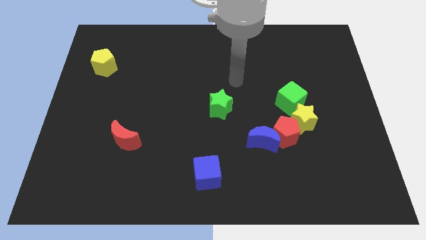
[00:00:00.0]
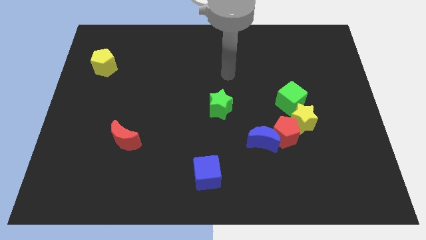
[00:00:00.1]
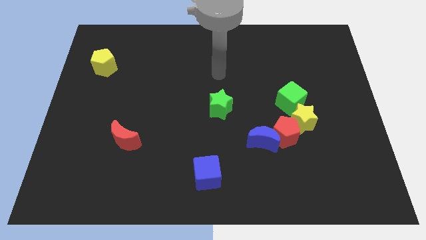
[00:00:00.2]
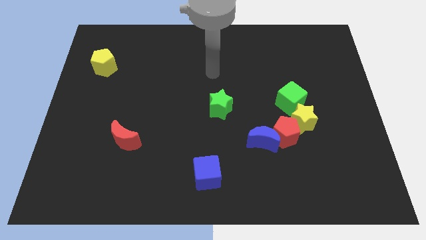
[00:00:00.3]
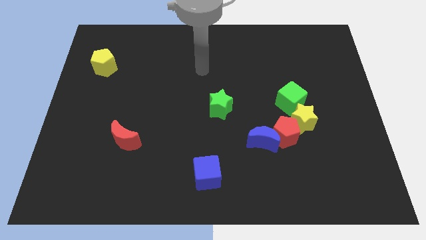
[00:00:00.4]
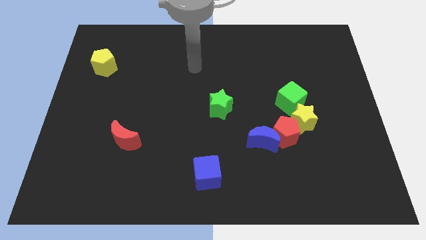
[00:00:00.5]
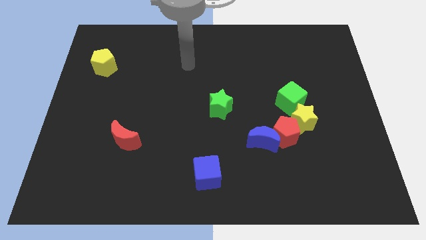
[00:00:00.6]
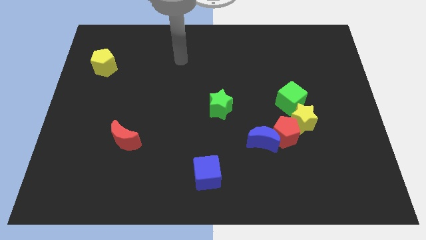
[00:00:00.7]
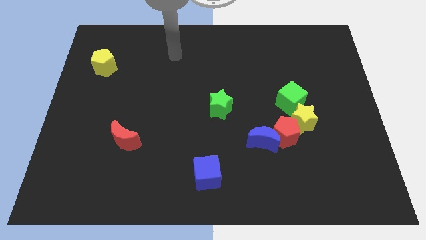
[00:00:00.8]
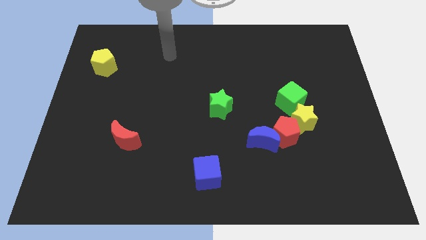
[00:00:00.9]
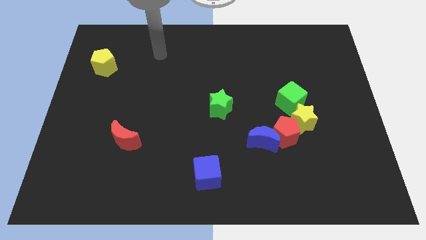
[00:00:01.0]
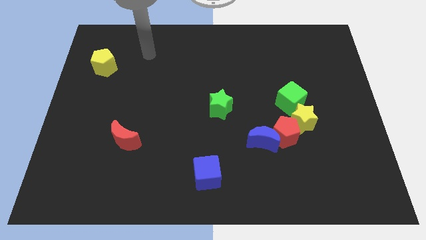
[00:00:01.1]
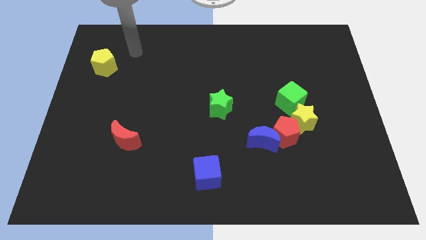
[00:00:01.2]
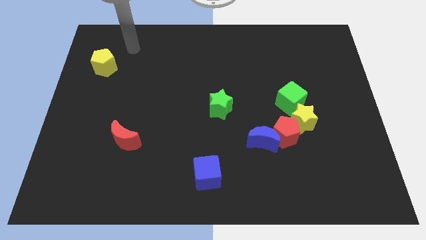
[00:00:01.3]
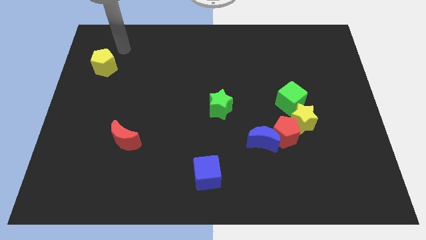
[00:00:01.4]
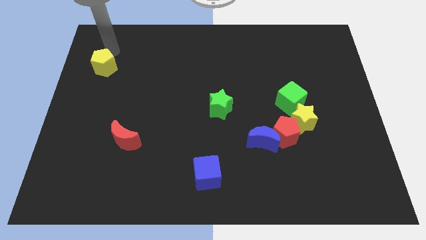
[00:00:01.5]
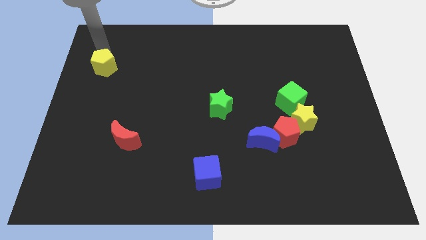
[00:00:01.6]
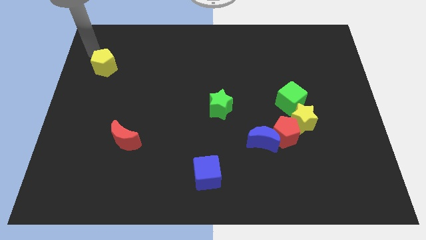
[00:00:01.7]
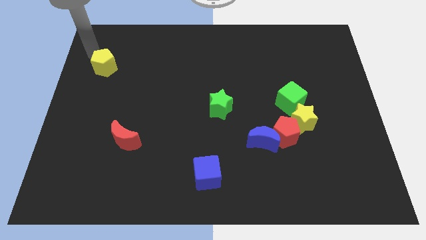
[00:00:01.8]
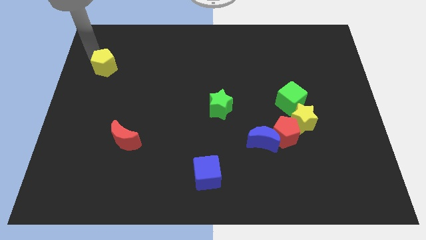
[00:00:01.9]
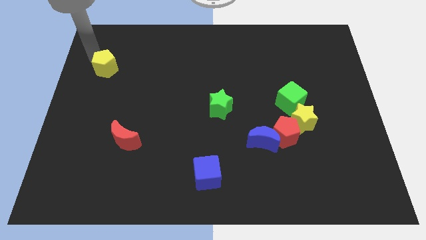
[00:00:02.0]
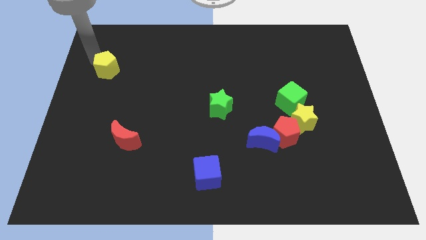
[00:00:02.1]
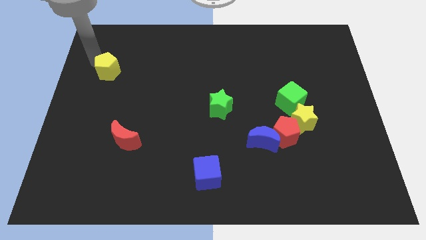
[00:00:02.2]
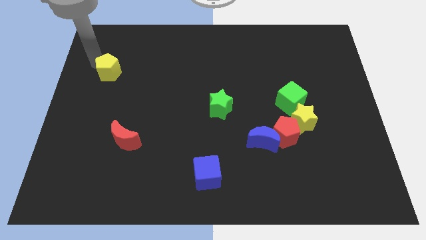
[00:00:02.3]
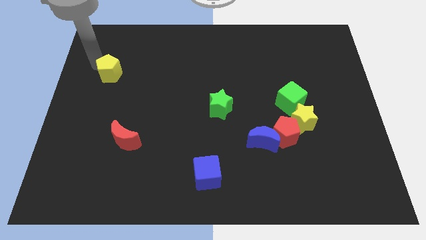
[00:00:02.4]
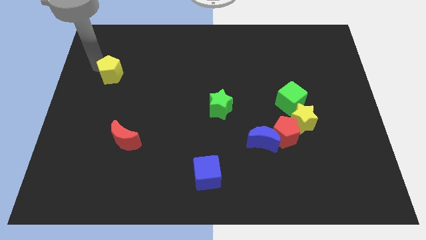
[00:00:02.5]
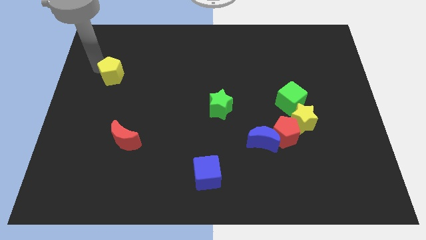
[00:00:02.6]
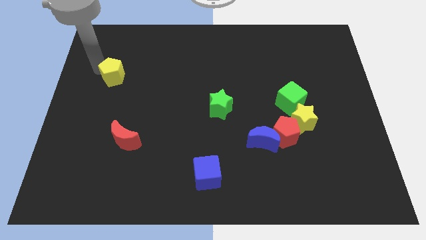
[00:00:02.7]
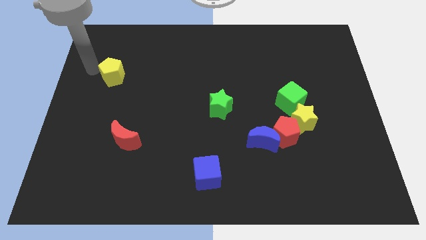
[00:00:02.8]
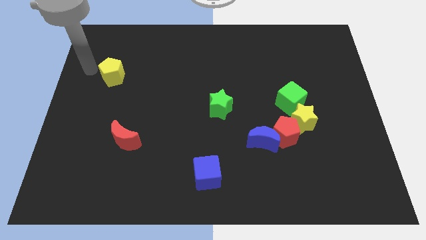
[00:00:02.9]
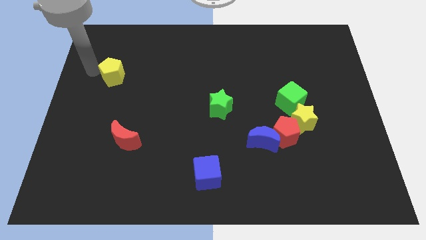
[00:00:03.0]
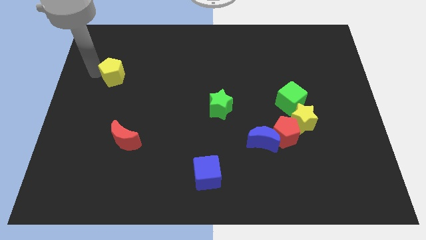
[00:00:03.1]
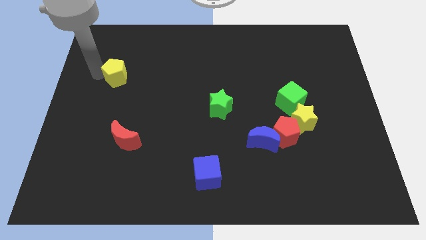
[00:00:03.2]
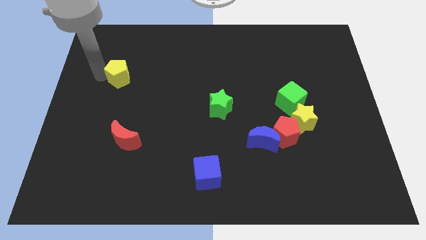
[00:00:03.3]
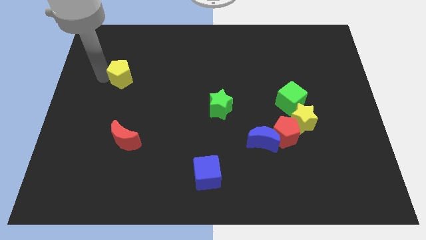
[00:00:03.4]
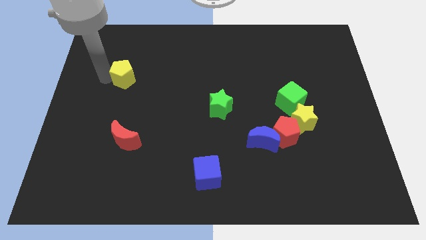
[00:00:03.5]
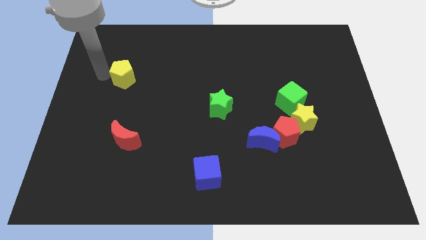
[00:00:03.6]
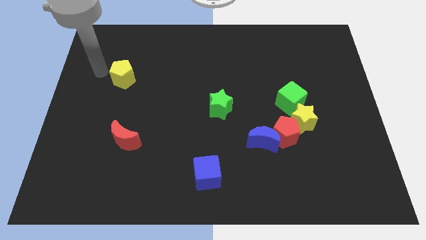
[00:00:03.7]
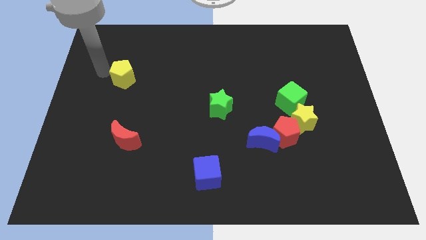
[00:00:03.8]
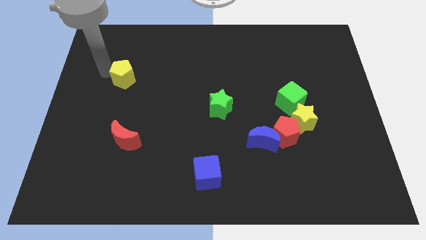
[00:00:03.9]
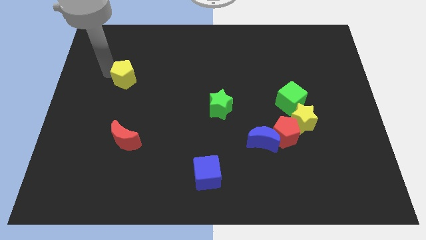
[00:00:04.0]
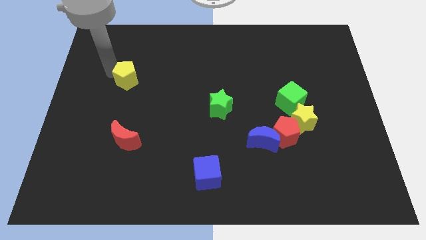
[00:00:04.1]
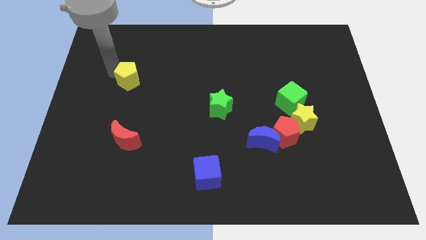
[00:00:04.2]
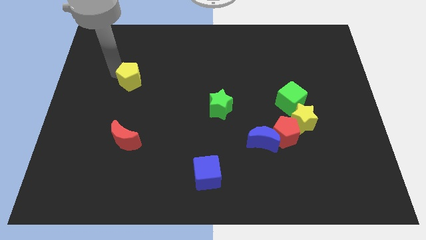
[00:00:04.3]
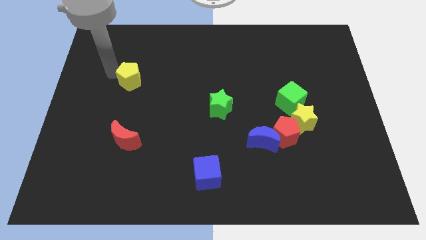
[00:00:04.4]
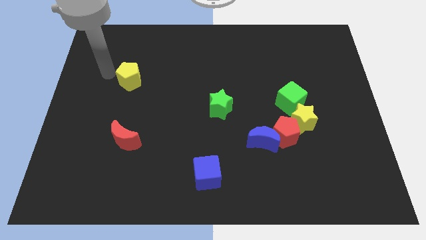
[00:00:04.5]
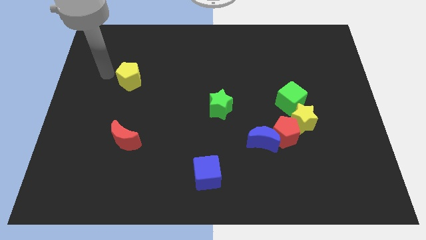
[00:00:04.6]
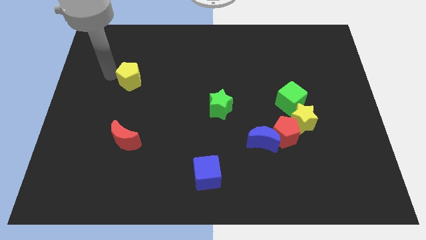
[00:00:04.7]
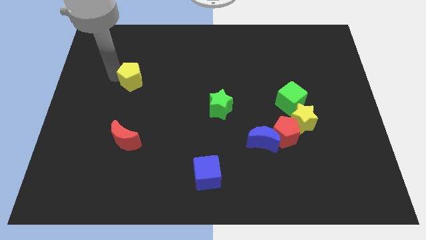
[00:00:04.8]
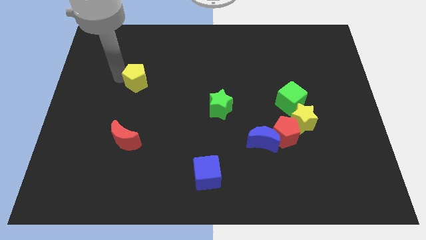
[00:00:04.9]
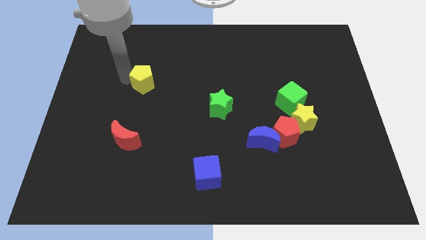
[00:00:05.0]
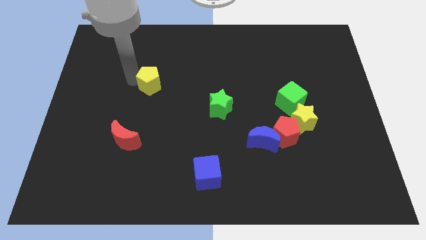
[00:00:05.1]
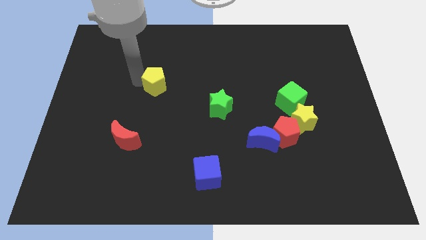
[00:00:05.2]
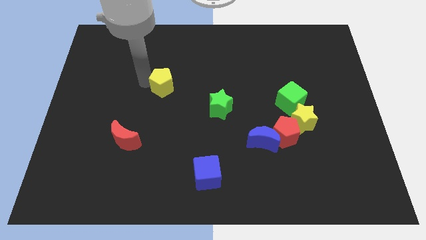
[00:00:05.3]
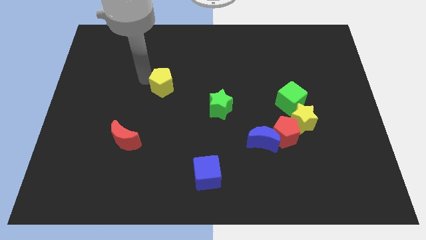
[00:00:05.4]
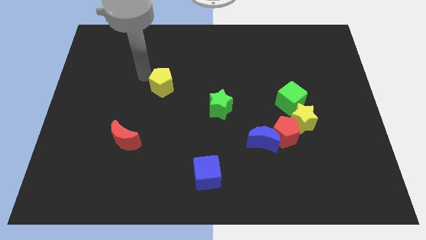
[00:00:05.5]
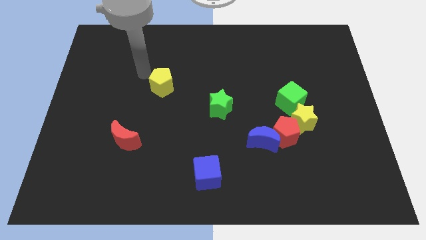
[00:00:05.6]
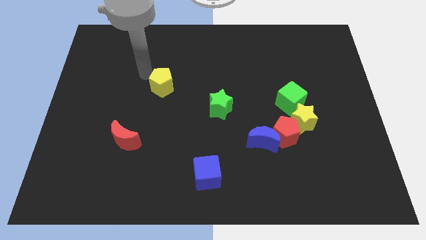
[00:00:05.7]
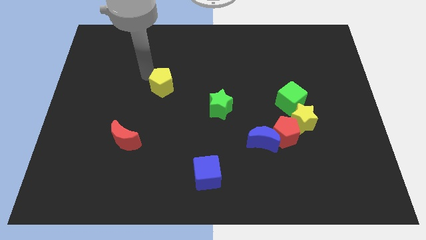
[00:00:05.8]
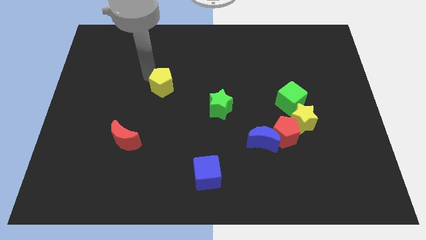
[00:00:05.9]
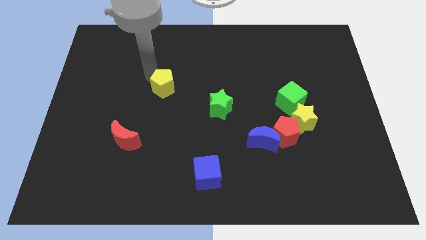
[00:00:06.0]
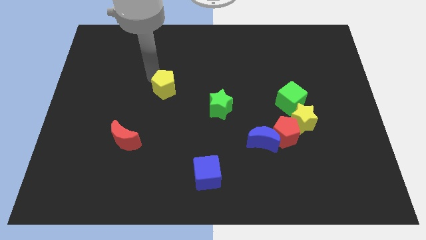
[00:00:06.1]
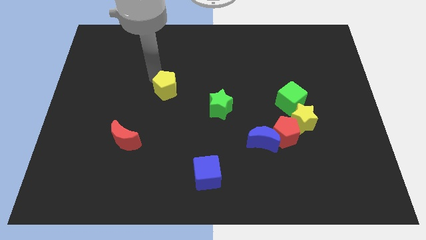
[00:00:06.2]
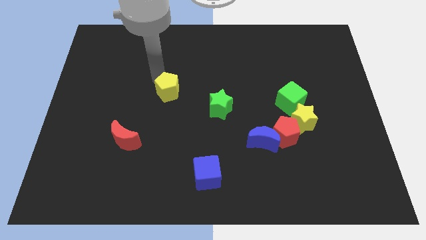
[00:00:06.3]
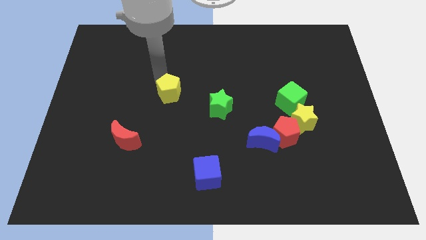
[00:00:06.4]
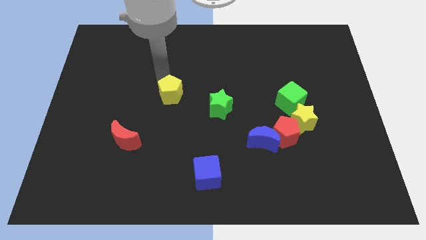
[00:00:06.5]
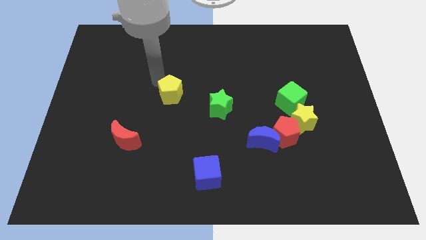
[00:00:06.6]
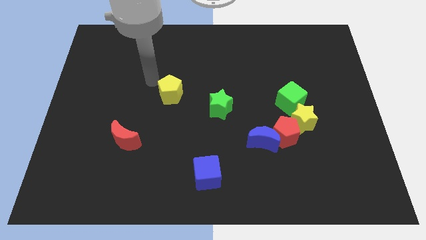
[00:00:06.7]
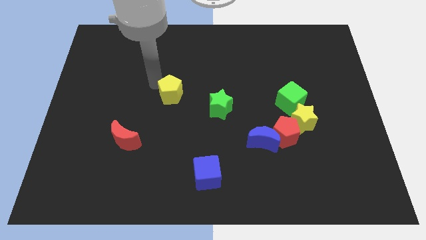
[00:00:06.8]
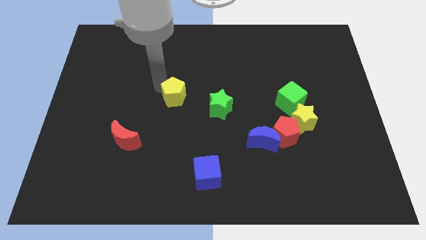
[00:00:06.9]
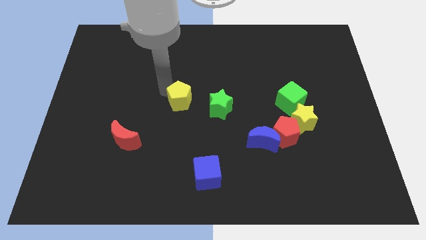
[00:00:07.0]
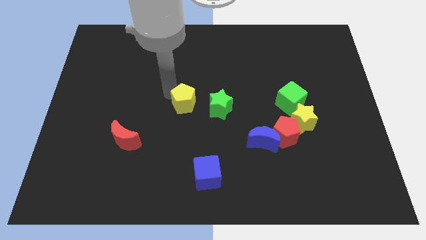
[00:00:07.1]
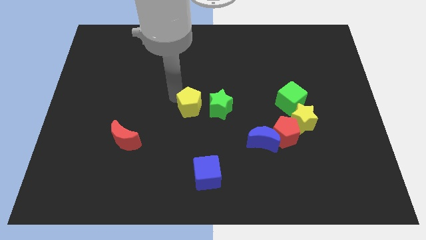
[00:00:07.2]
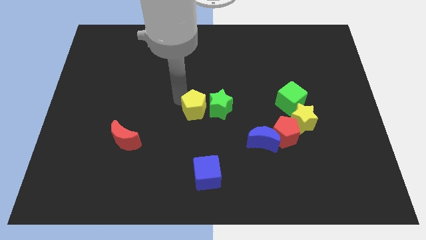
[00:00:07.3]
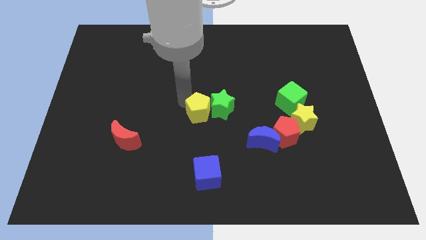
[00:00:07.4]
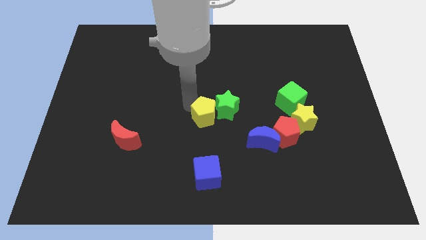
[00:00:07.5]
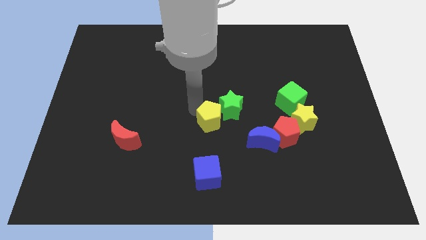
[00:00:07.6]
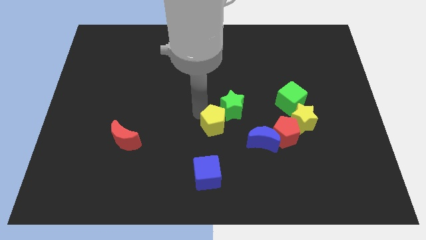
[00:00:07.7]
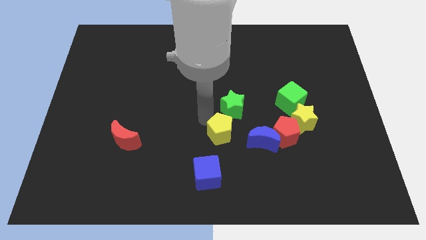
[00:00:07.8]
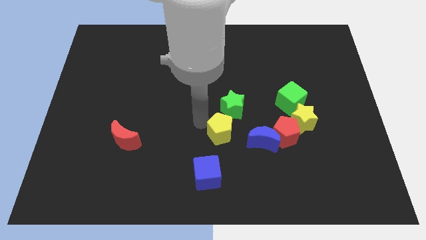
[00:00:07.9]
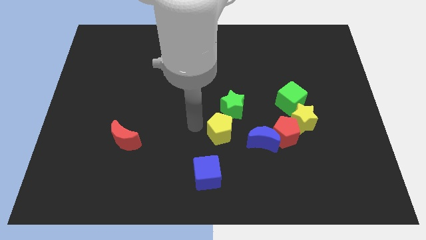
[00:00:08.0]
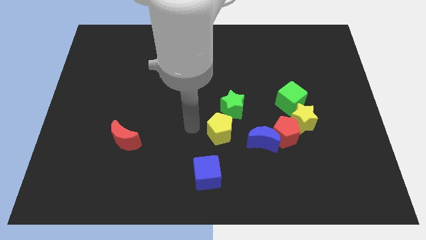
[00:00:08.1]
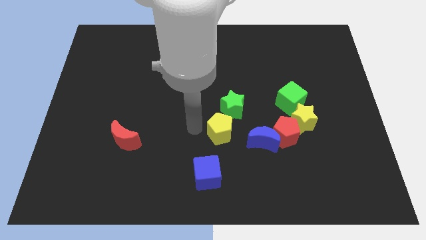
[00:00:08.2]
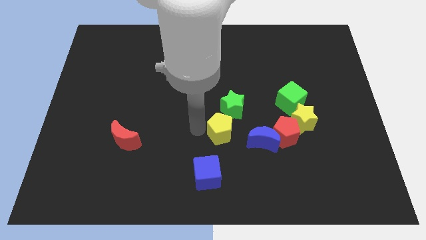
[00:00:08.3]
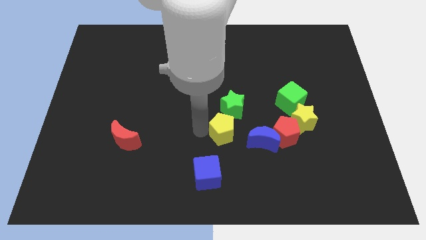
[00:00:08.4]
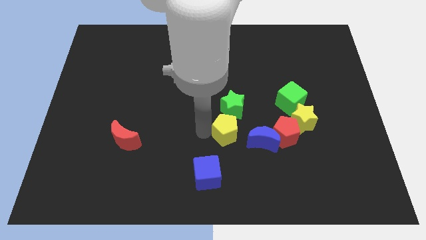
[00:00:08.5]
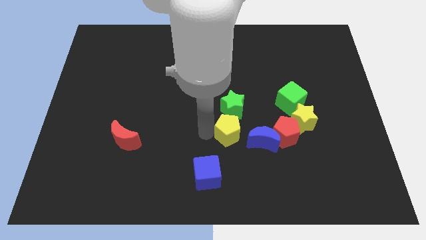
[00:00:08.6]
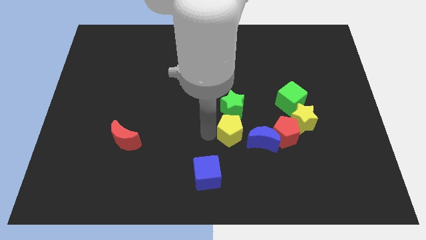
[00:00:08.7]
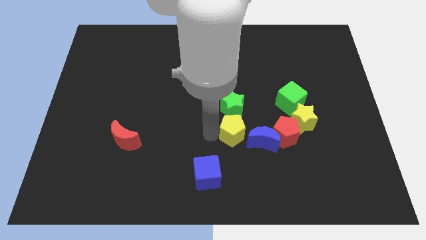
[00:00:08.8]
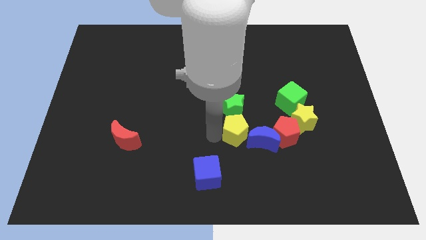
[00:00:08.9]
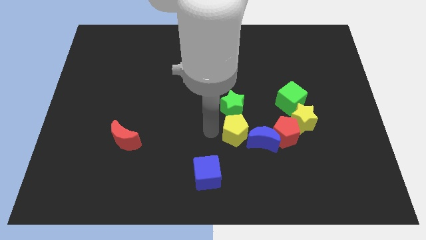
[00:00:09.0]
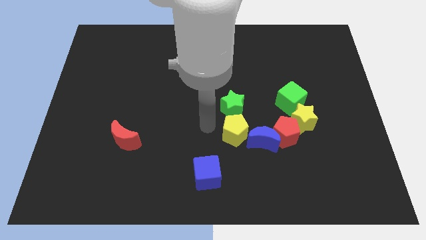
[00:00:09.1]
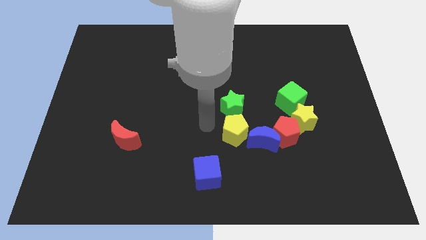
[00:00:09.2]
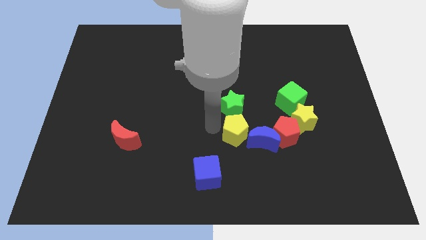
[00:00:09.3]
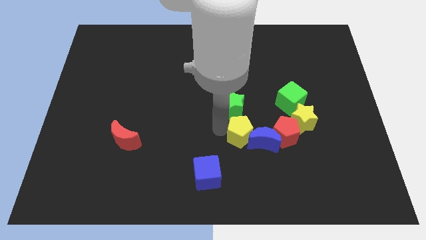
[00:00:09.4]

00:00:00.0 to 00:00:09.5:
put the yellow pentagon next to the blue moon
